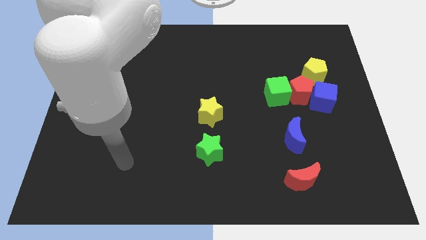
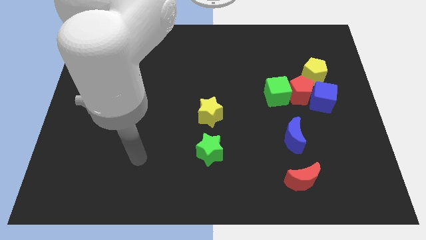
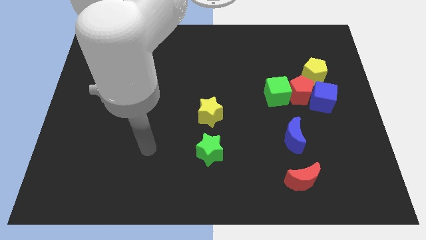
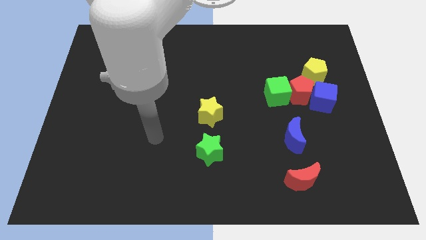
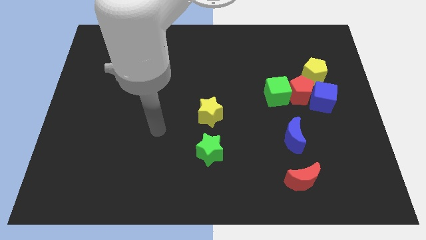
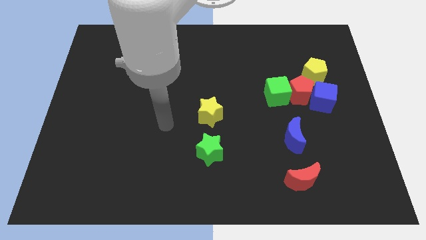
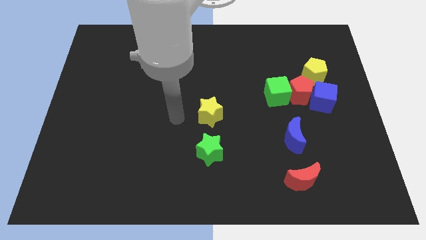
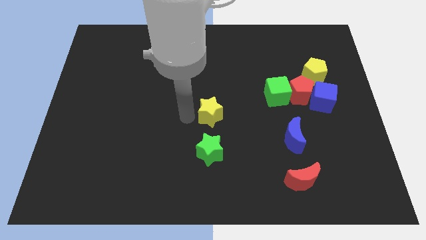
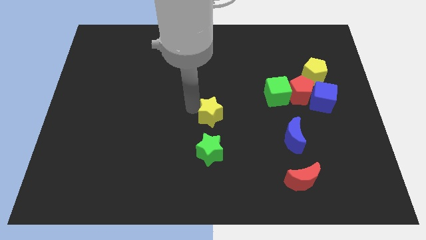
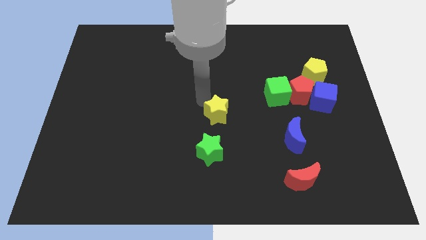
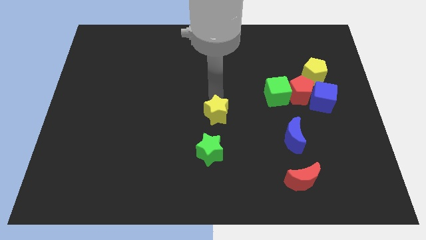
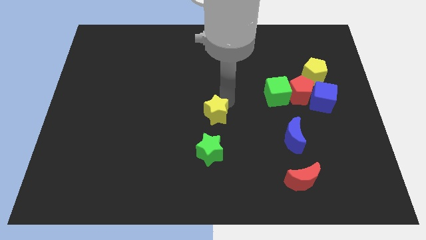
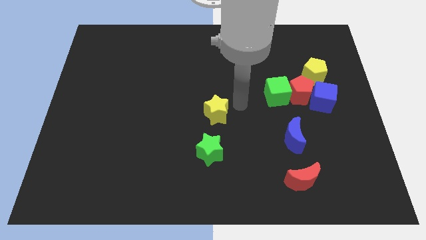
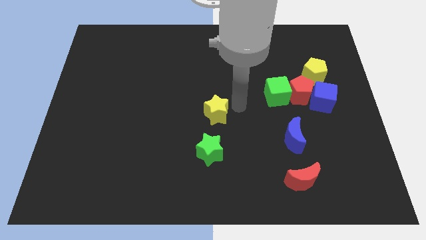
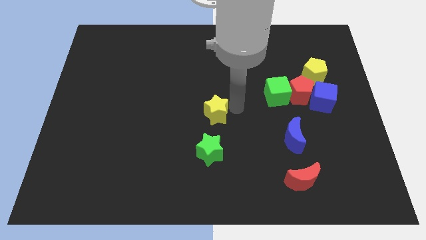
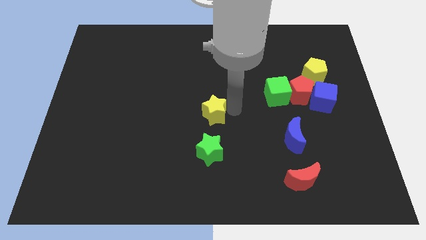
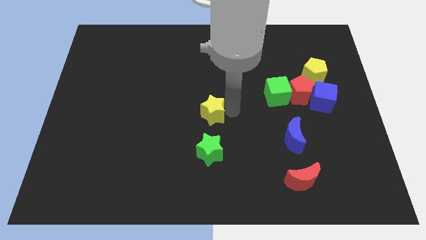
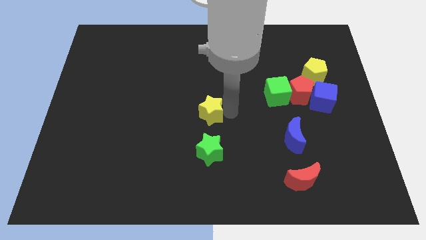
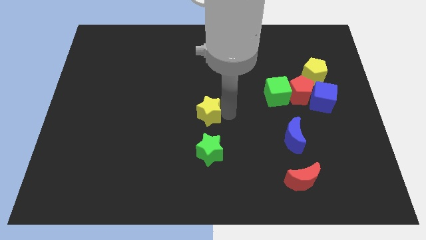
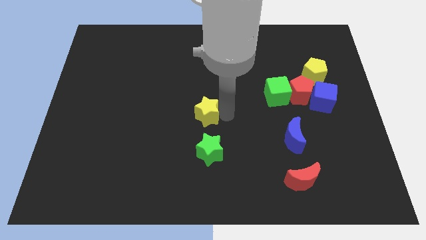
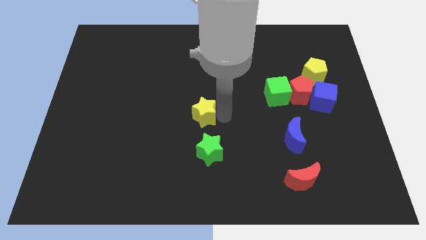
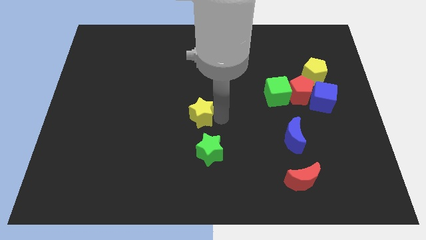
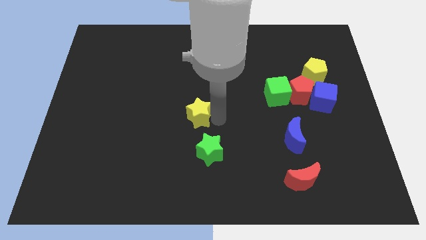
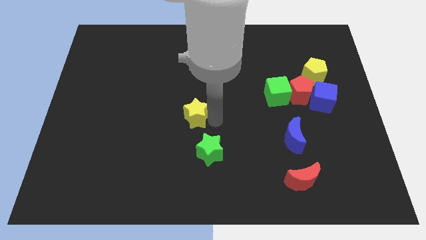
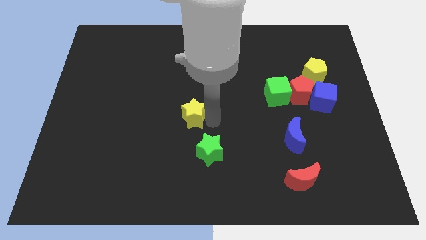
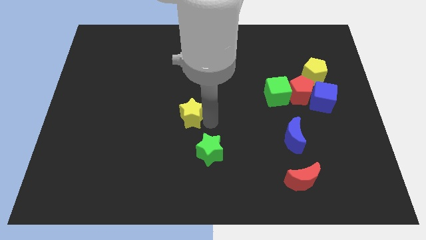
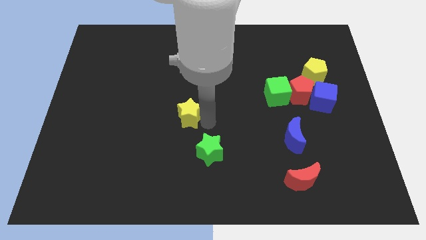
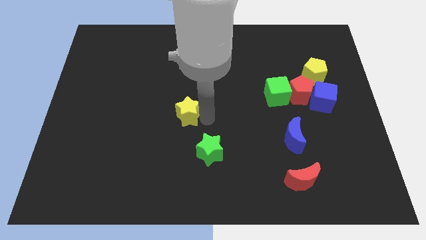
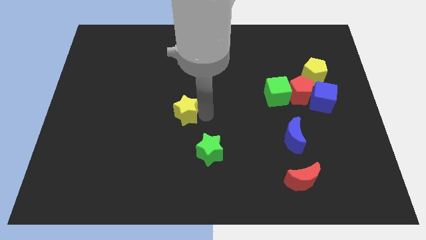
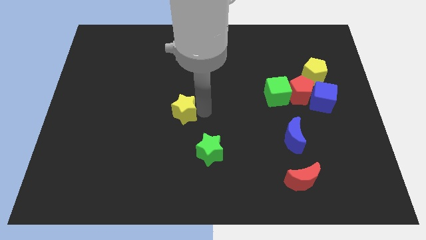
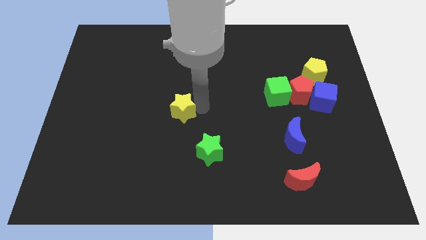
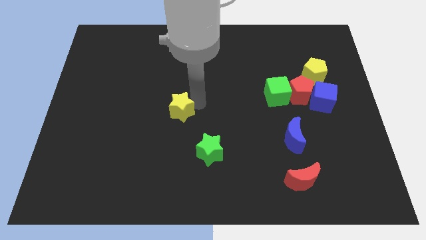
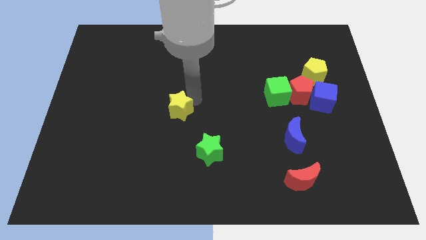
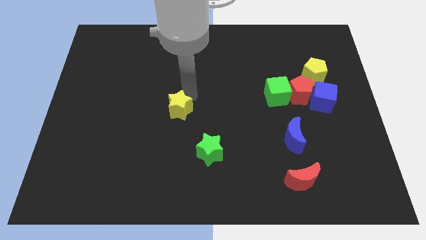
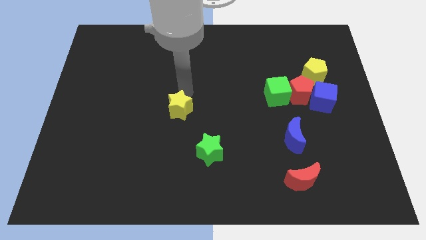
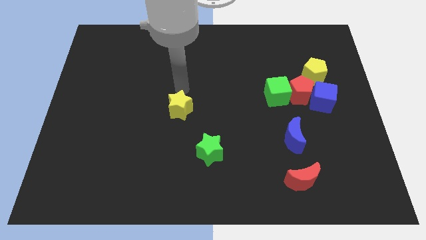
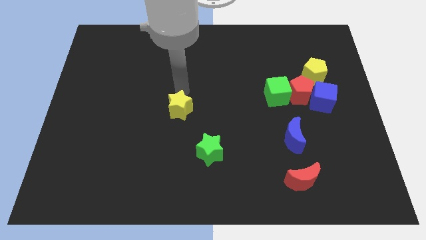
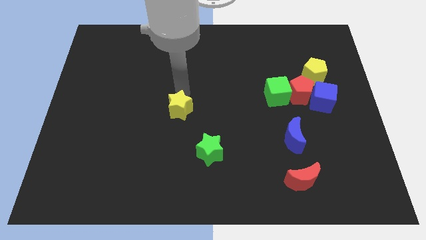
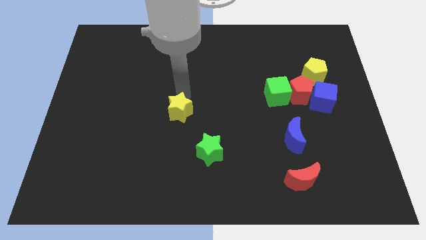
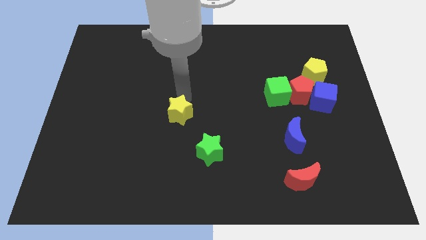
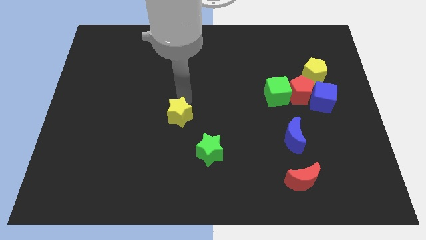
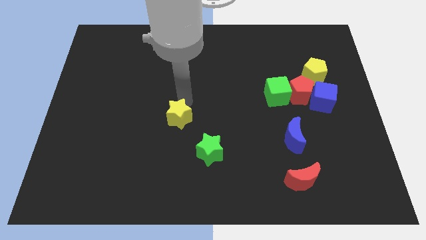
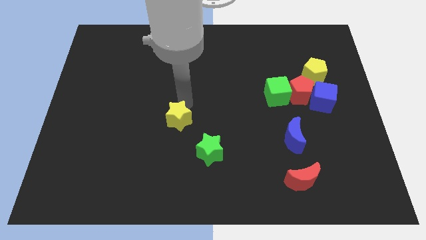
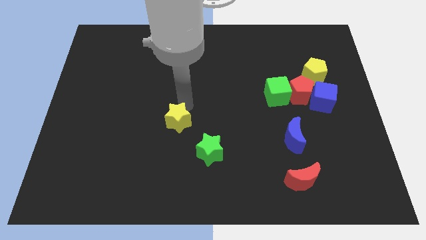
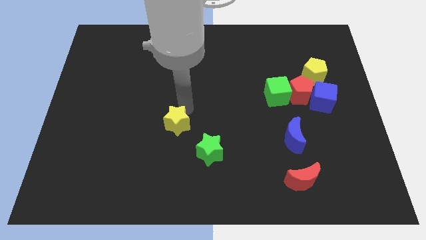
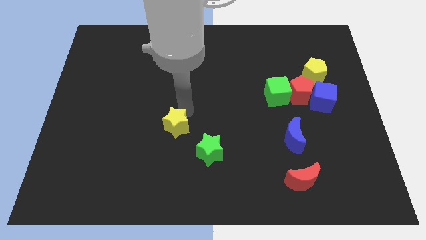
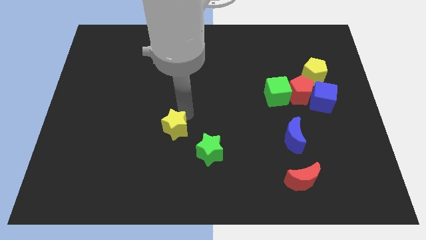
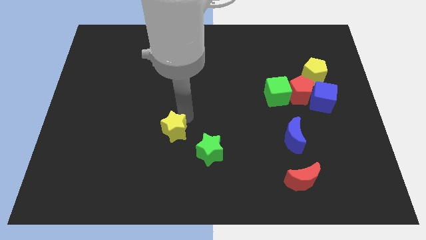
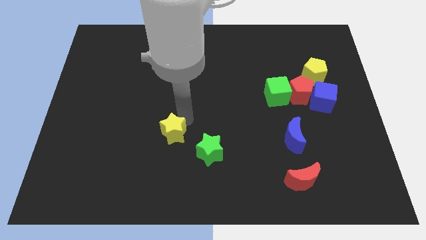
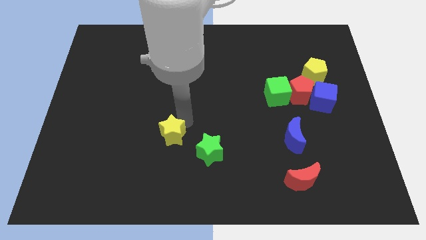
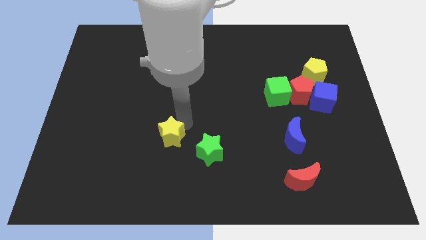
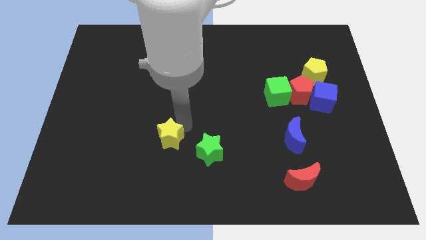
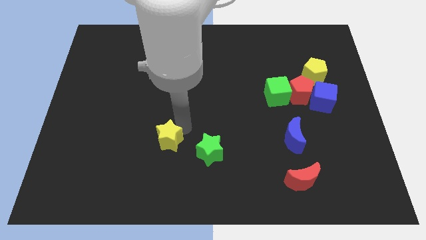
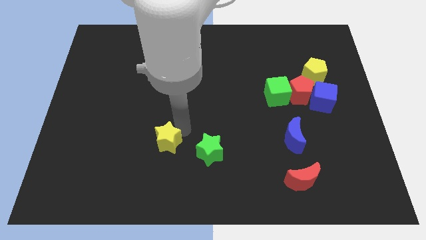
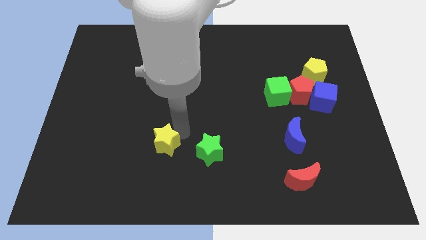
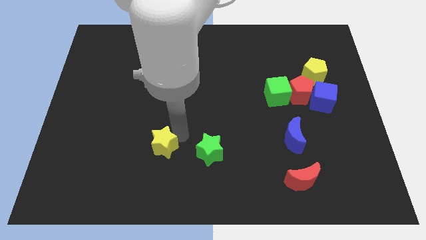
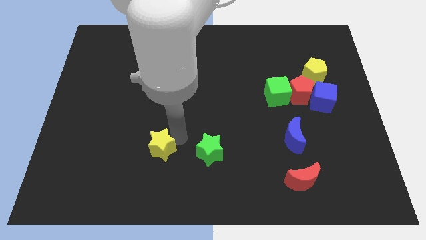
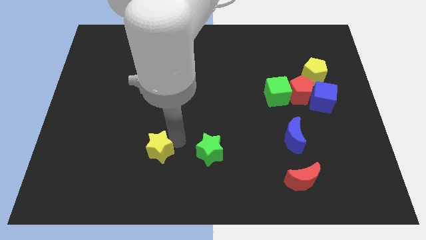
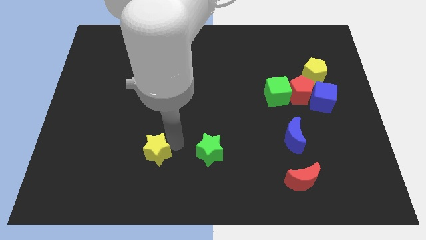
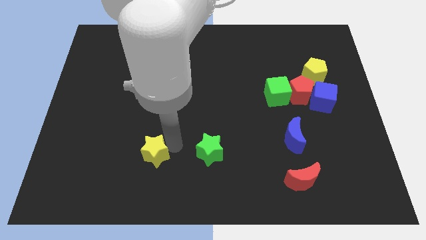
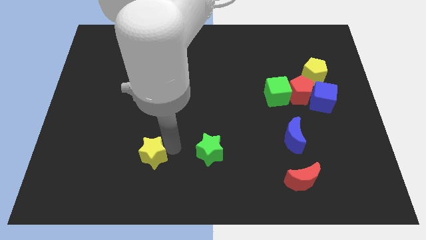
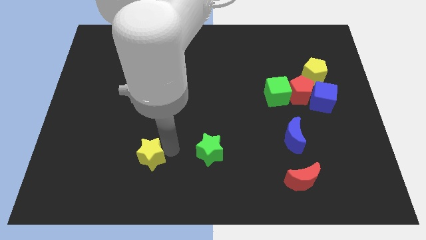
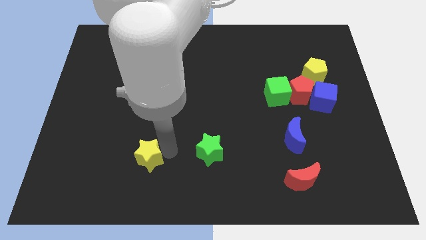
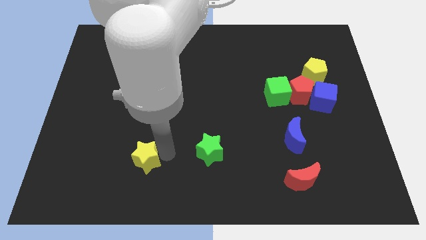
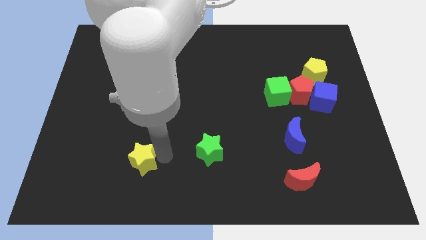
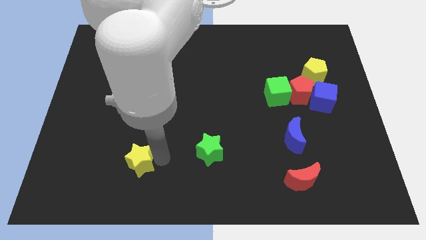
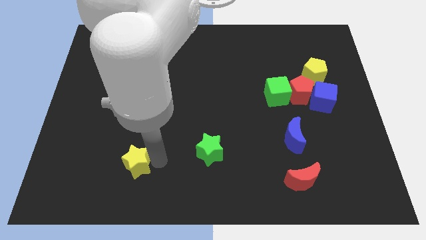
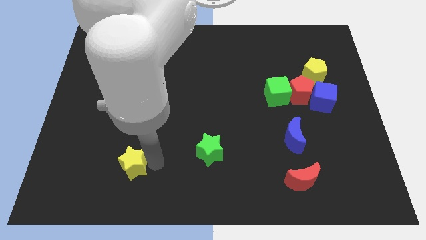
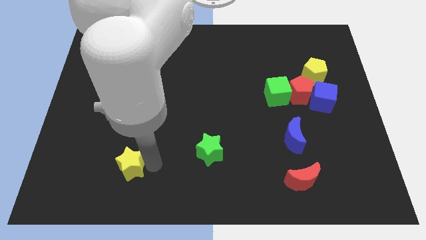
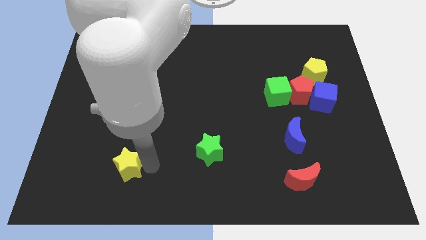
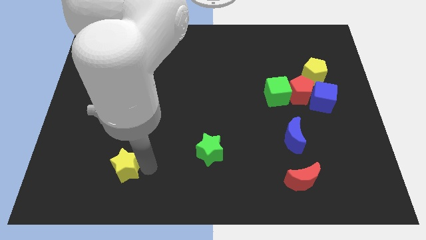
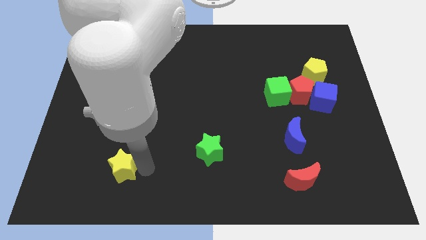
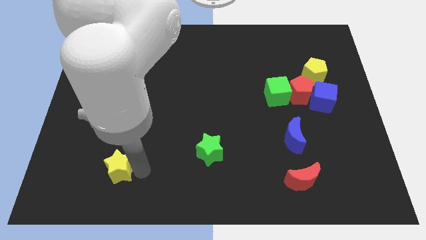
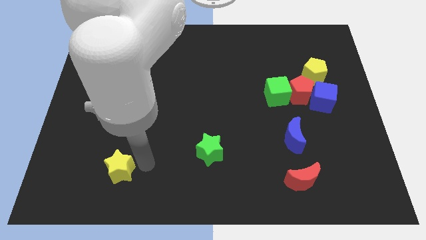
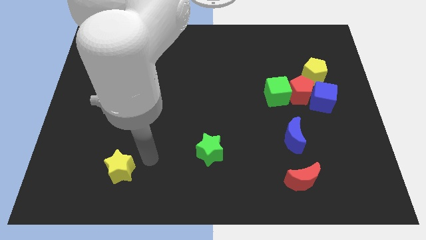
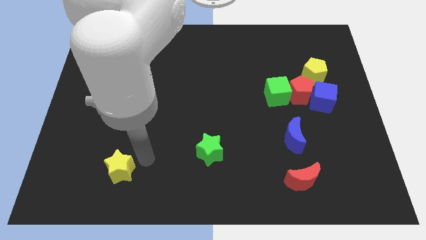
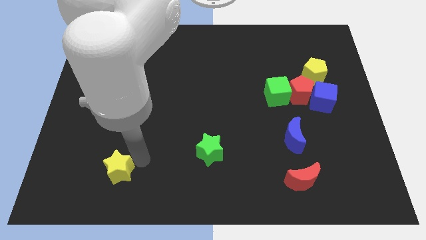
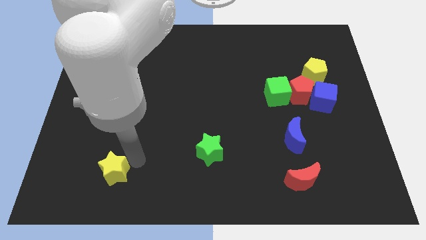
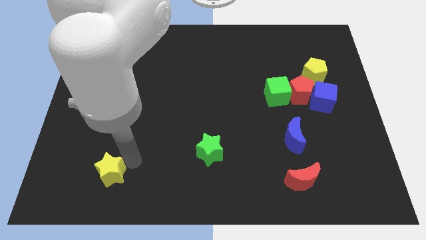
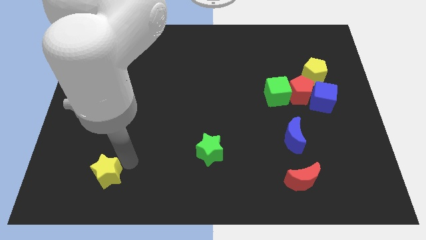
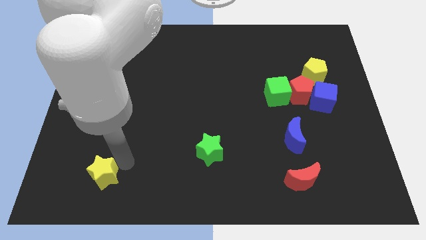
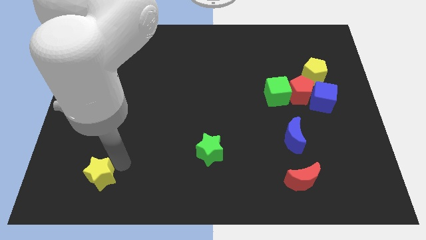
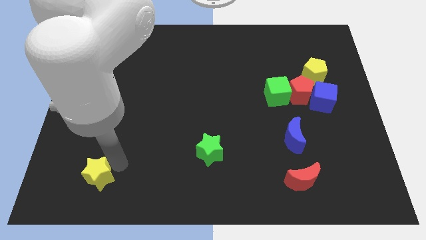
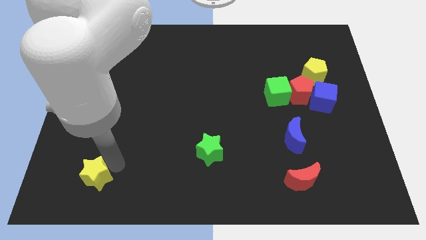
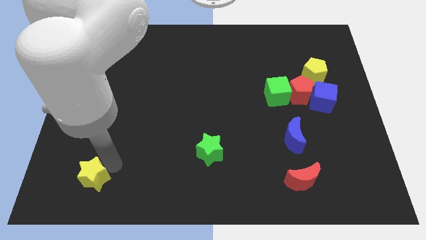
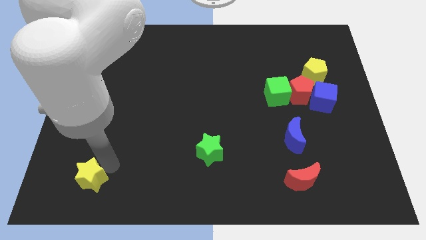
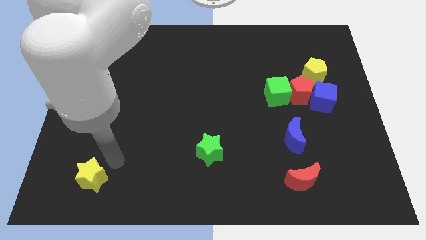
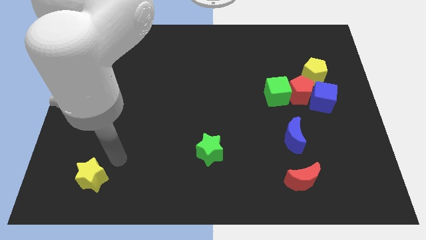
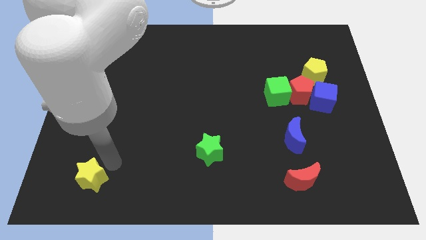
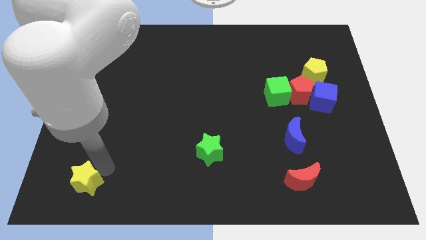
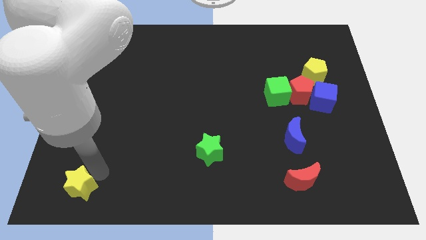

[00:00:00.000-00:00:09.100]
move the yellow star to the bottom left corner
